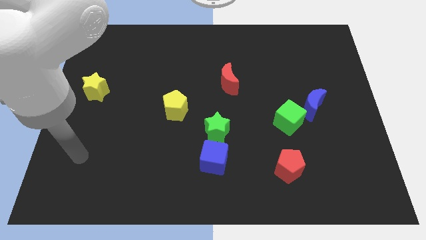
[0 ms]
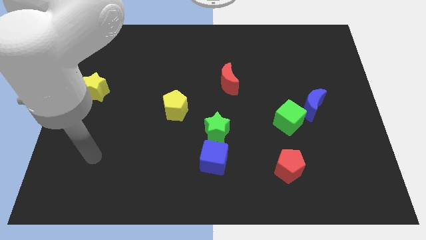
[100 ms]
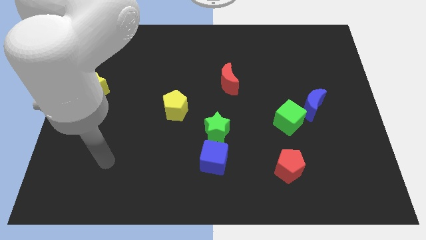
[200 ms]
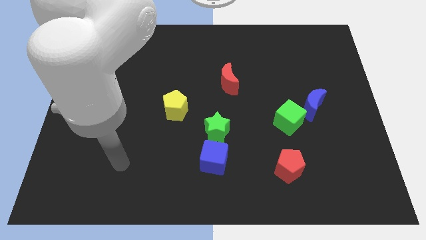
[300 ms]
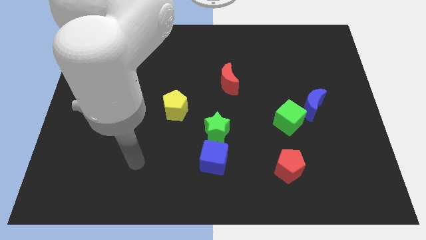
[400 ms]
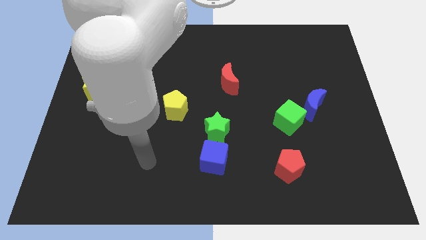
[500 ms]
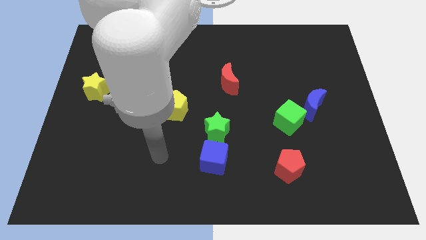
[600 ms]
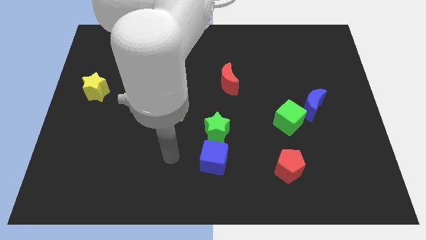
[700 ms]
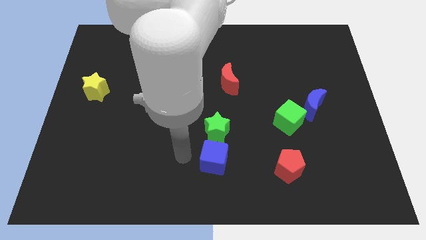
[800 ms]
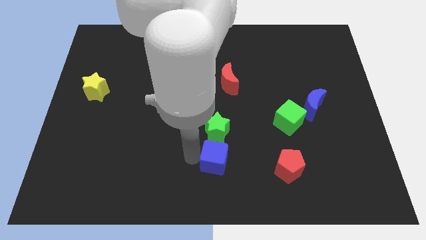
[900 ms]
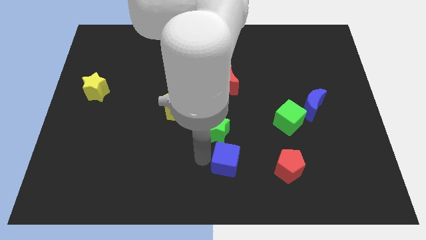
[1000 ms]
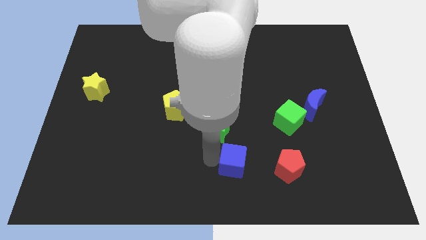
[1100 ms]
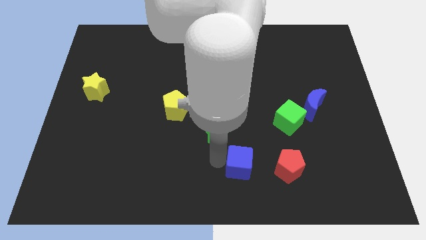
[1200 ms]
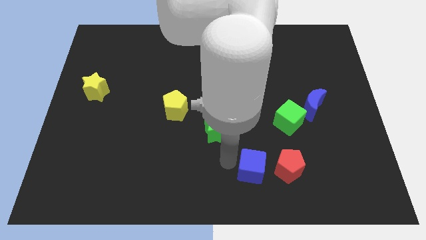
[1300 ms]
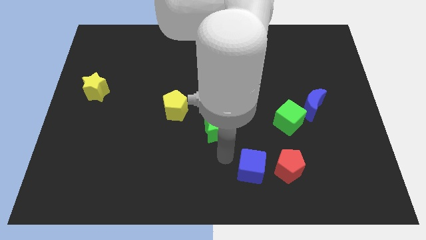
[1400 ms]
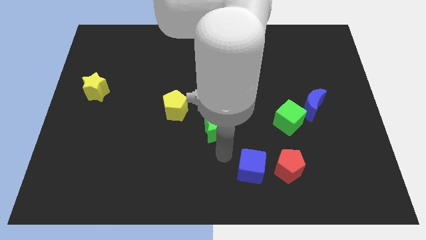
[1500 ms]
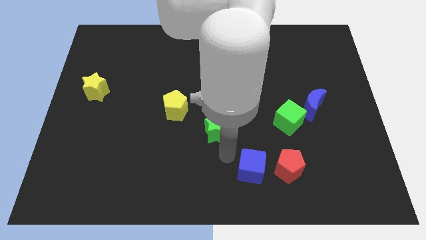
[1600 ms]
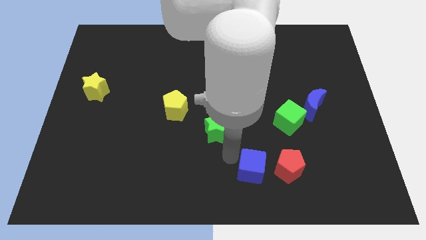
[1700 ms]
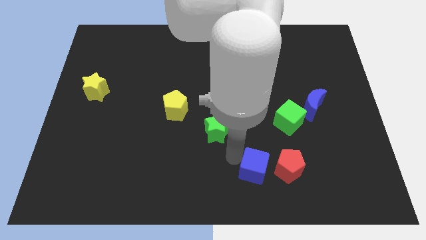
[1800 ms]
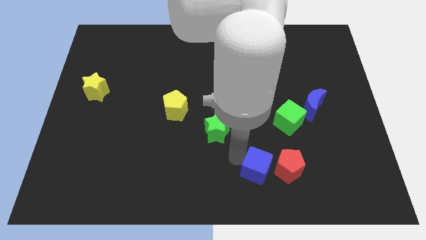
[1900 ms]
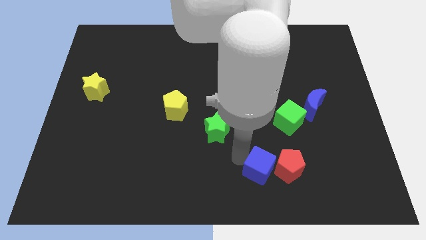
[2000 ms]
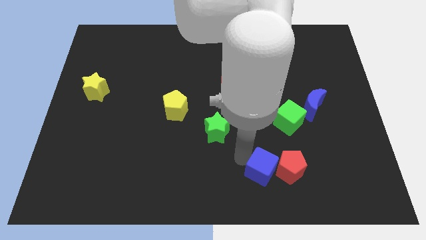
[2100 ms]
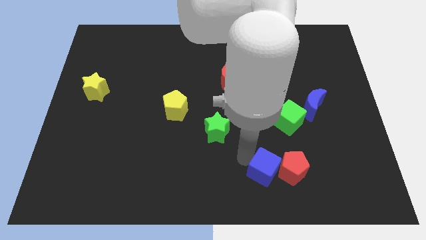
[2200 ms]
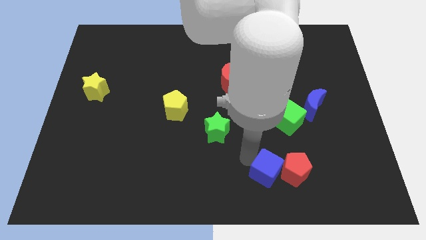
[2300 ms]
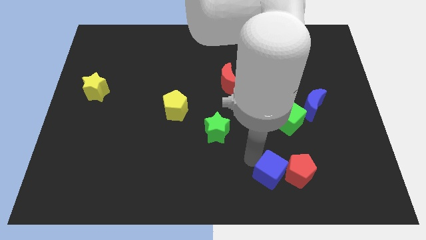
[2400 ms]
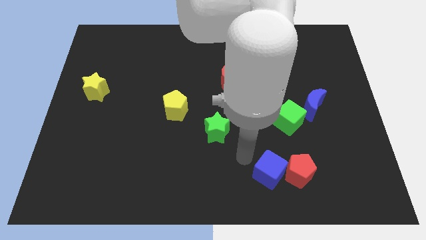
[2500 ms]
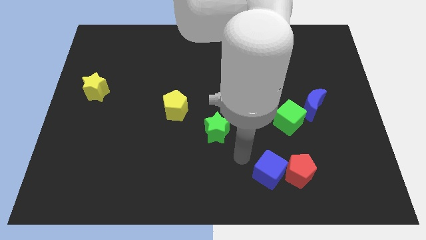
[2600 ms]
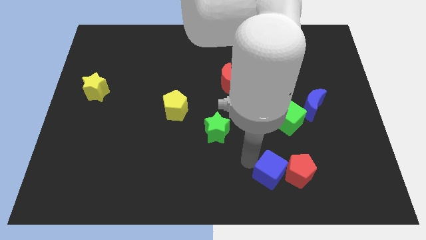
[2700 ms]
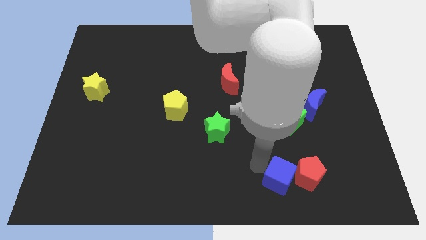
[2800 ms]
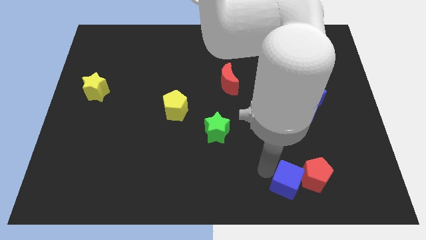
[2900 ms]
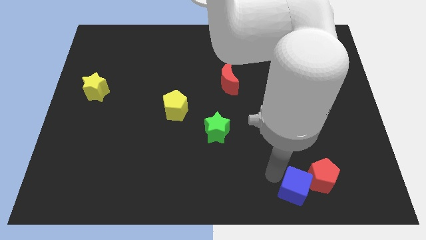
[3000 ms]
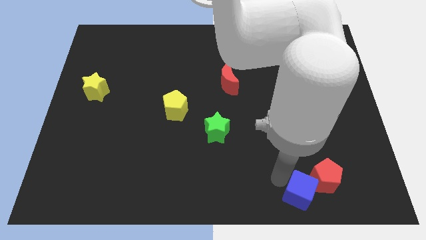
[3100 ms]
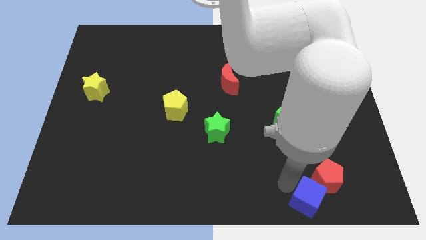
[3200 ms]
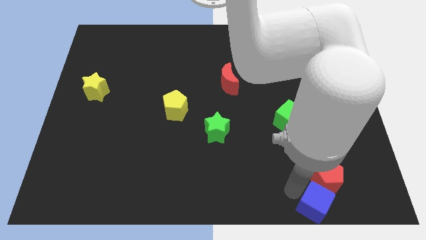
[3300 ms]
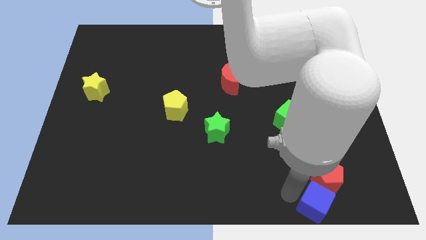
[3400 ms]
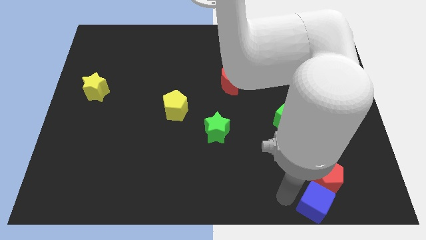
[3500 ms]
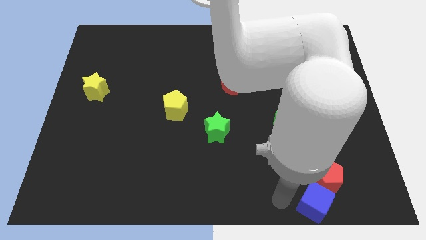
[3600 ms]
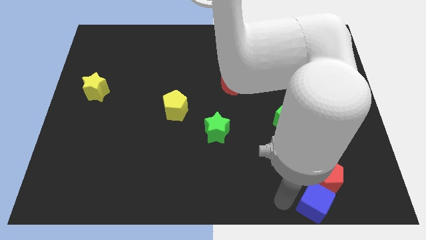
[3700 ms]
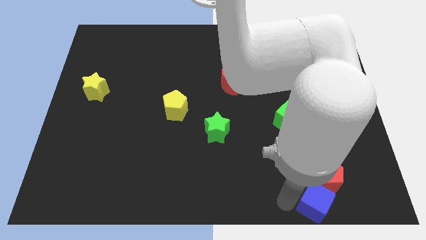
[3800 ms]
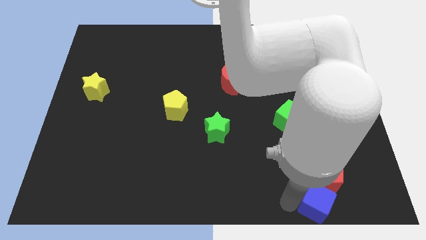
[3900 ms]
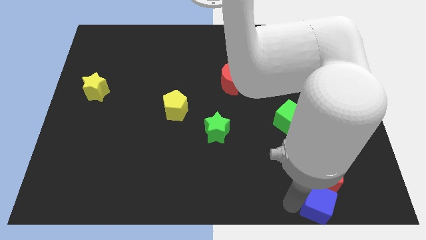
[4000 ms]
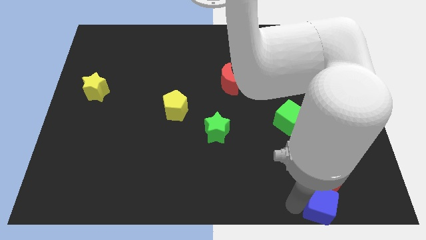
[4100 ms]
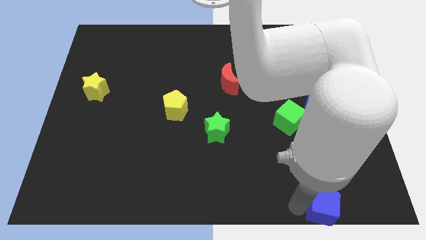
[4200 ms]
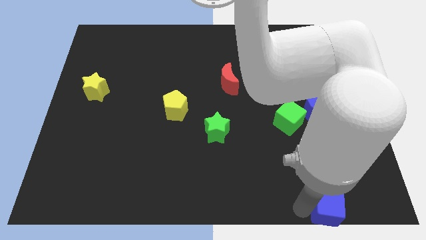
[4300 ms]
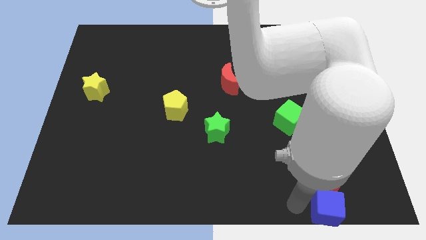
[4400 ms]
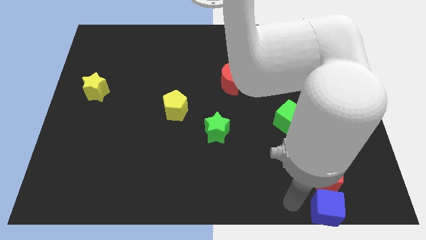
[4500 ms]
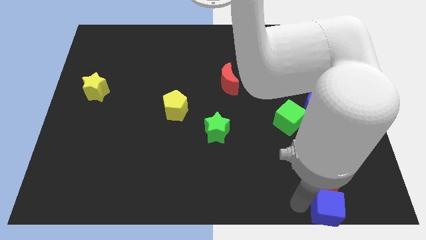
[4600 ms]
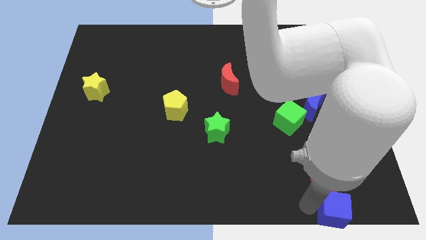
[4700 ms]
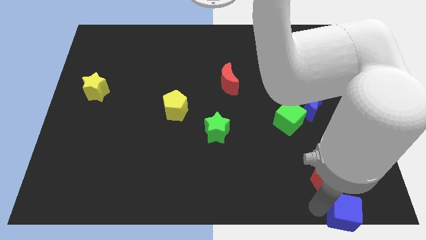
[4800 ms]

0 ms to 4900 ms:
push the blue cube to the bottom right corner

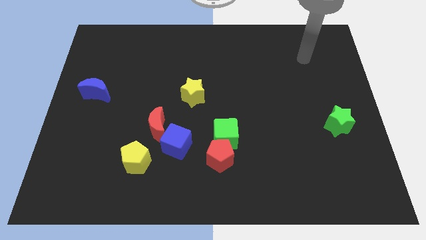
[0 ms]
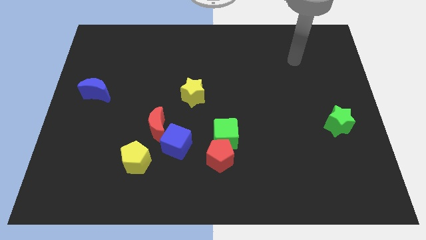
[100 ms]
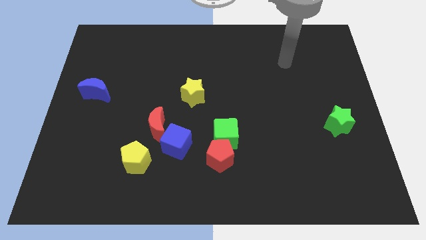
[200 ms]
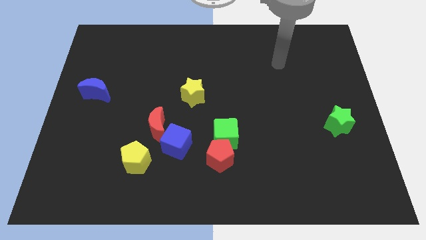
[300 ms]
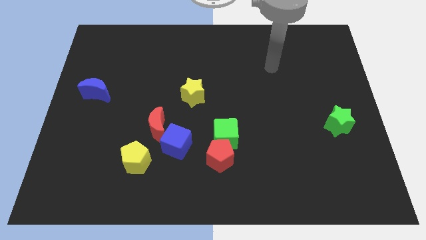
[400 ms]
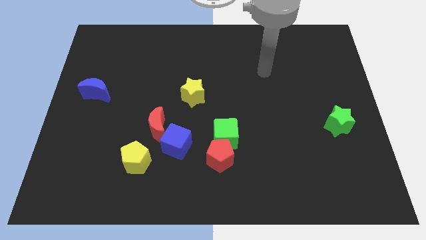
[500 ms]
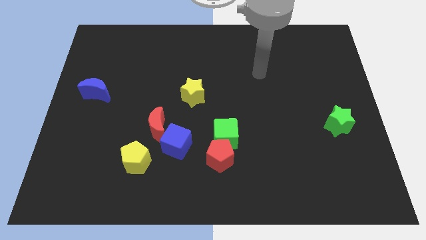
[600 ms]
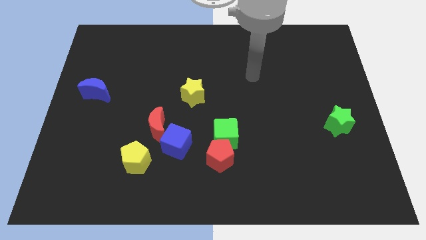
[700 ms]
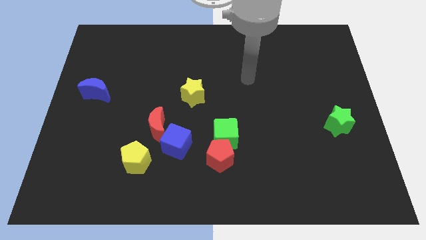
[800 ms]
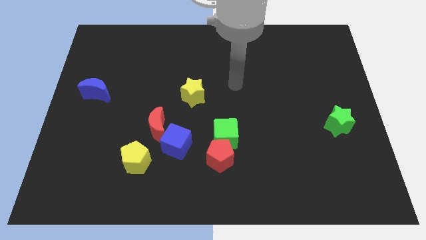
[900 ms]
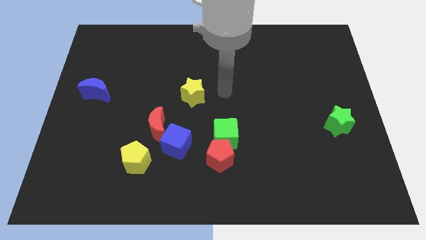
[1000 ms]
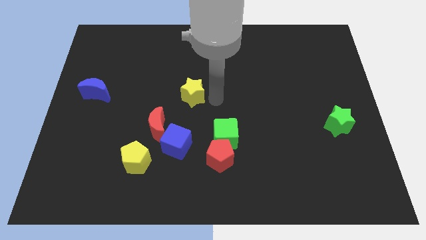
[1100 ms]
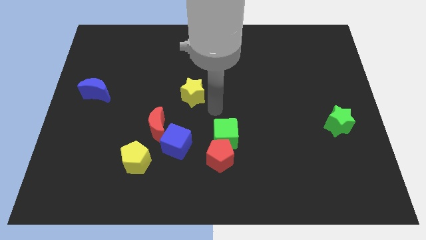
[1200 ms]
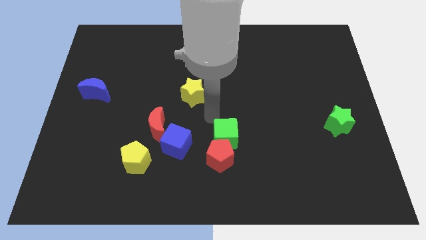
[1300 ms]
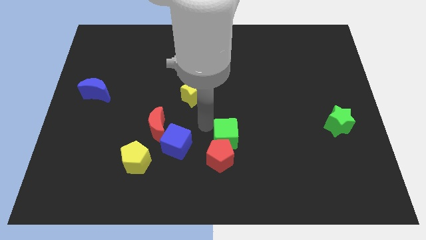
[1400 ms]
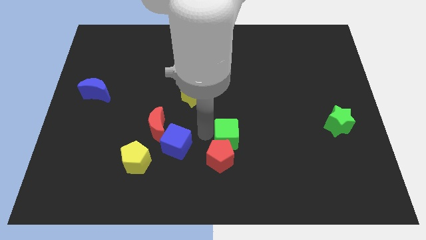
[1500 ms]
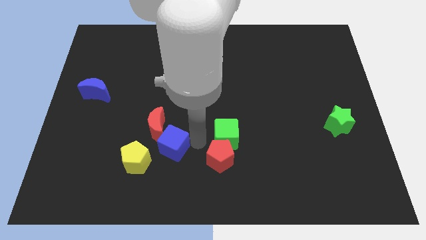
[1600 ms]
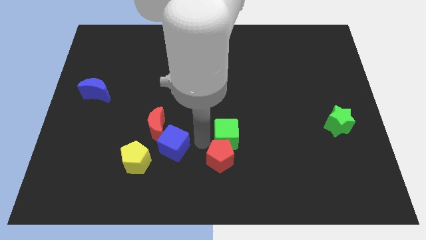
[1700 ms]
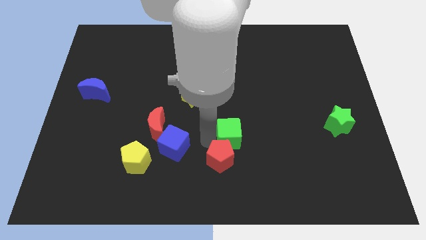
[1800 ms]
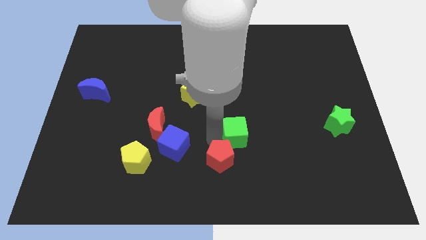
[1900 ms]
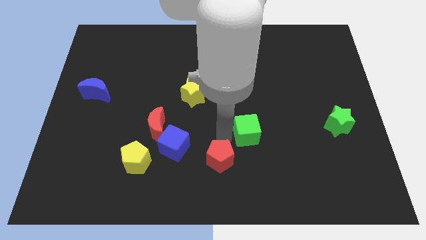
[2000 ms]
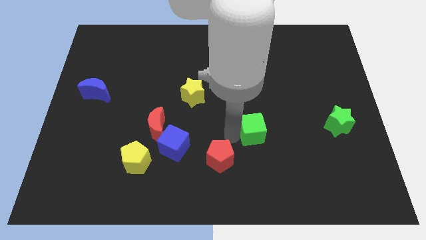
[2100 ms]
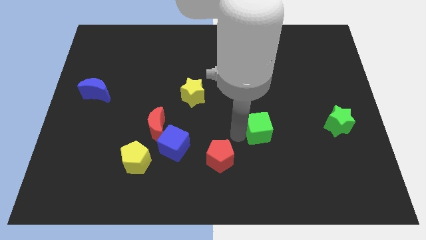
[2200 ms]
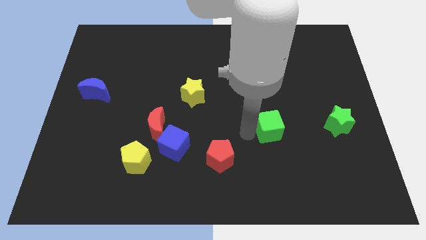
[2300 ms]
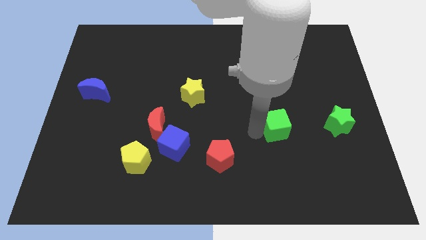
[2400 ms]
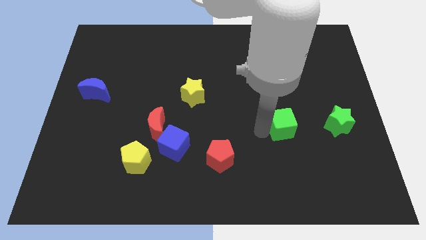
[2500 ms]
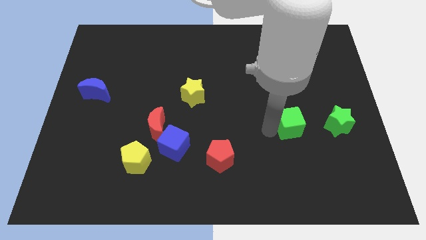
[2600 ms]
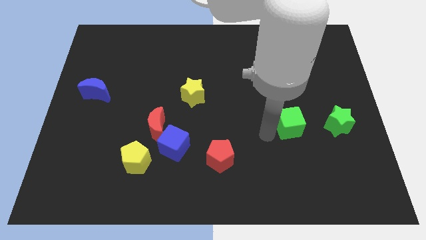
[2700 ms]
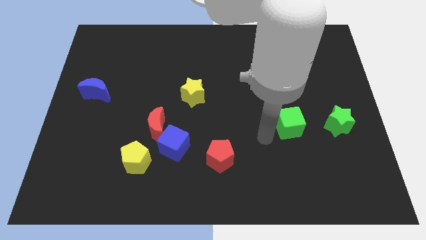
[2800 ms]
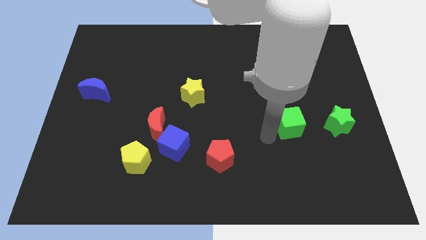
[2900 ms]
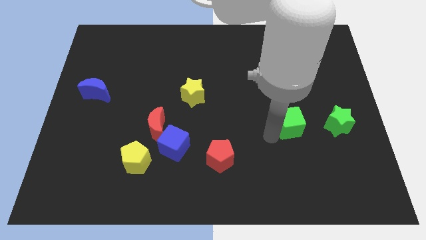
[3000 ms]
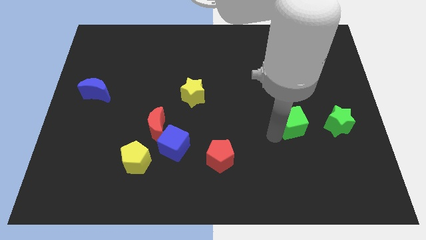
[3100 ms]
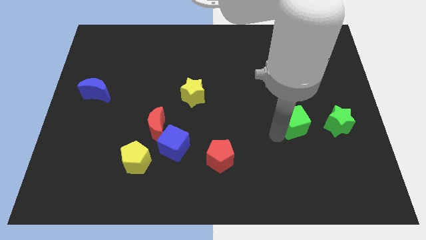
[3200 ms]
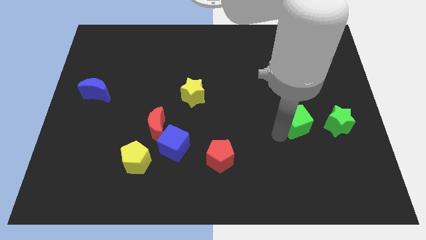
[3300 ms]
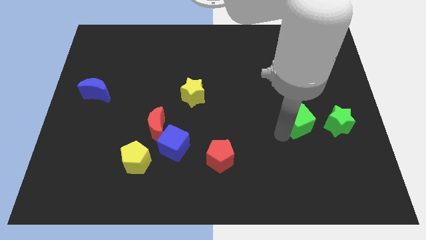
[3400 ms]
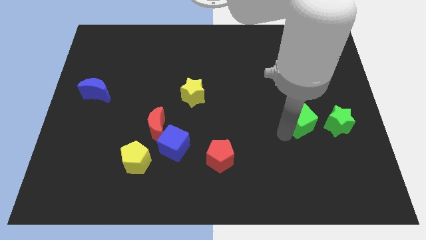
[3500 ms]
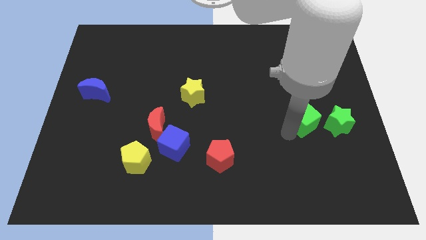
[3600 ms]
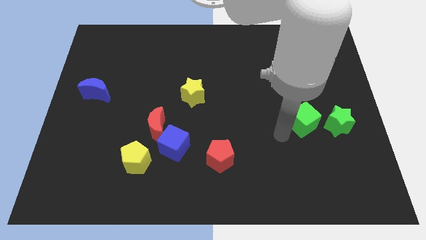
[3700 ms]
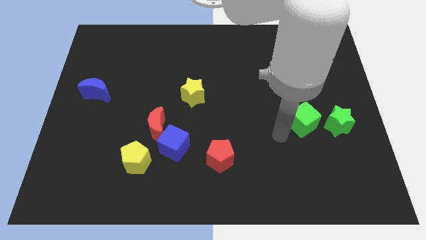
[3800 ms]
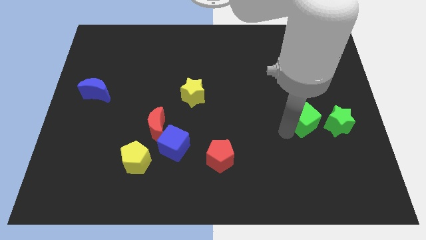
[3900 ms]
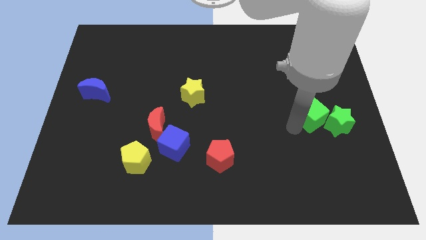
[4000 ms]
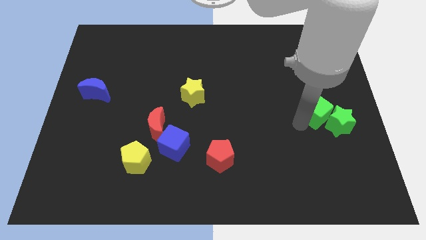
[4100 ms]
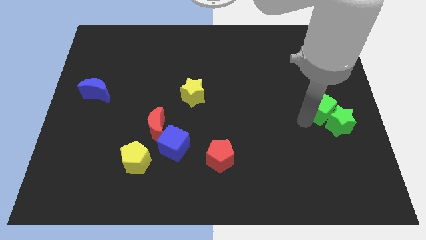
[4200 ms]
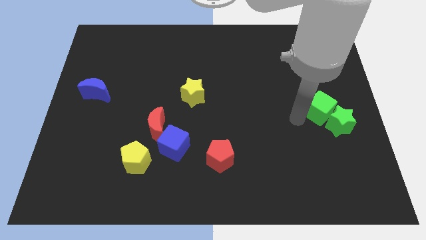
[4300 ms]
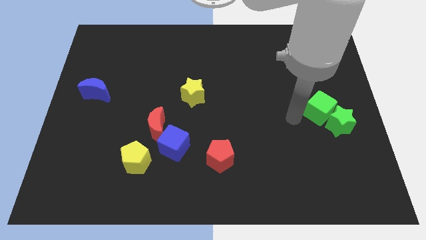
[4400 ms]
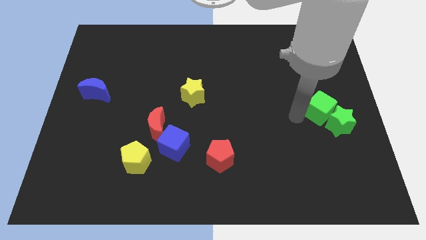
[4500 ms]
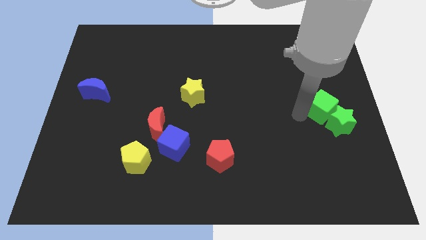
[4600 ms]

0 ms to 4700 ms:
put the green cube to the center right
